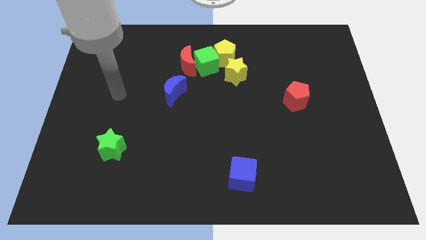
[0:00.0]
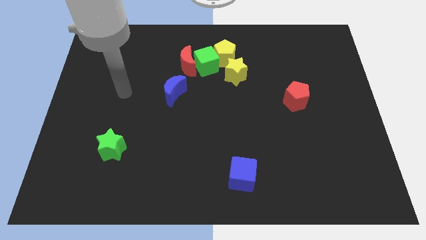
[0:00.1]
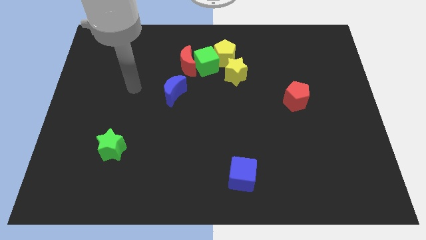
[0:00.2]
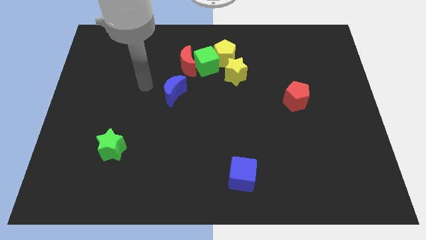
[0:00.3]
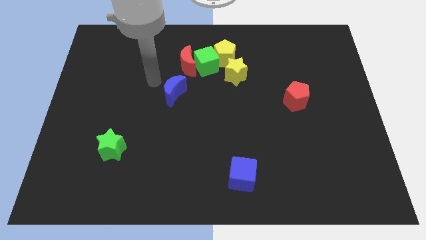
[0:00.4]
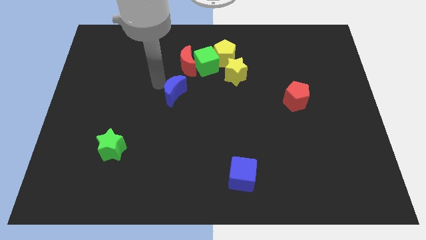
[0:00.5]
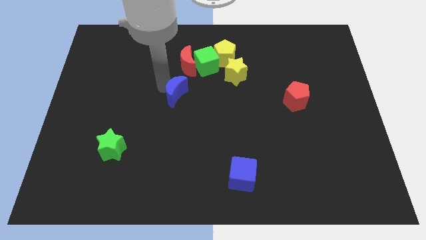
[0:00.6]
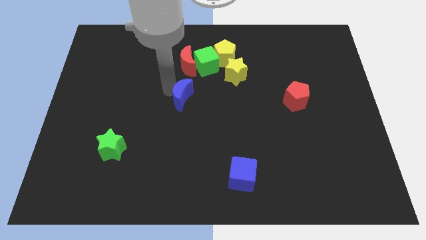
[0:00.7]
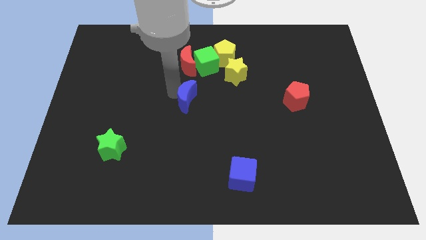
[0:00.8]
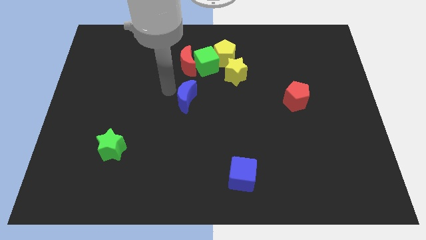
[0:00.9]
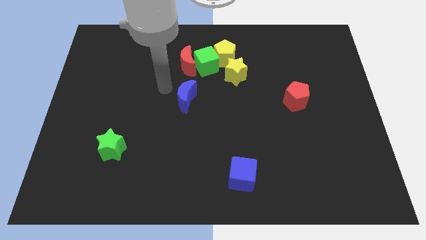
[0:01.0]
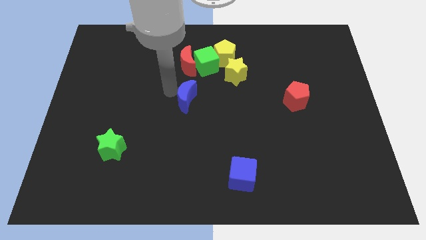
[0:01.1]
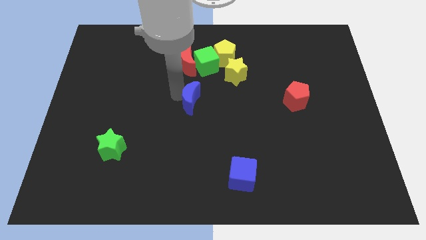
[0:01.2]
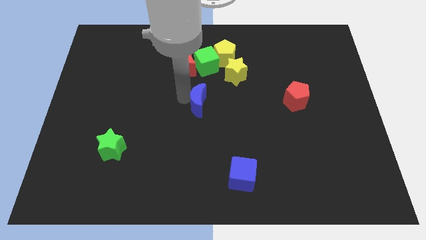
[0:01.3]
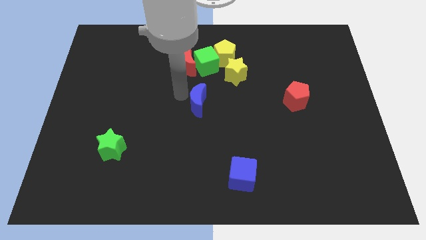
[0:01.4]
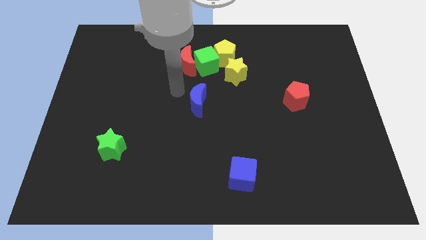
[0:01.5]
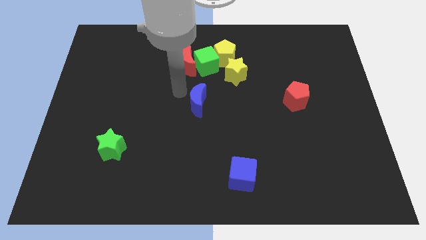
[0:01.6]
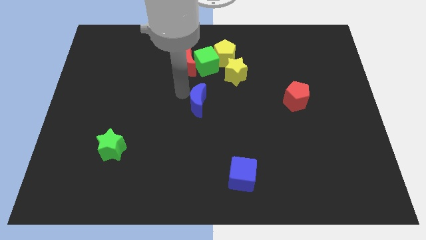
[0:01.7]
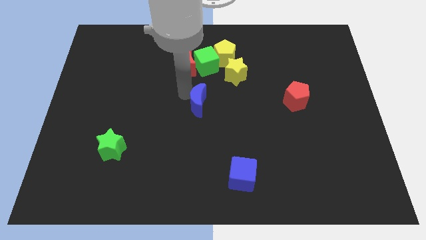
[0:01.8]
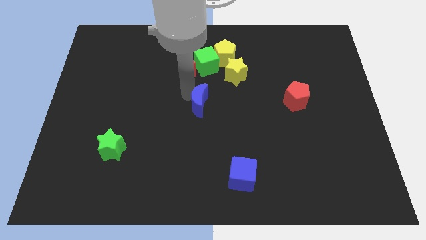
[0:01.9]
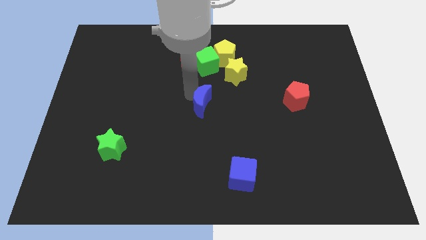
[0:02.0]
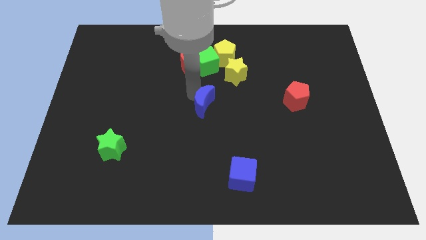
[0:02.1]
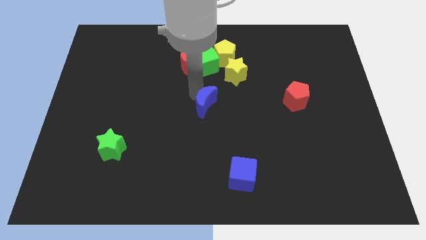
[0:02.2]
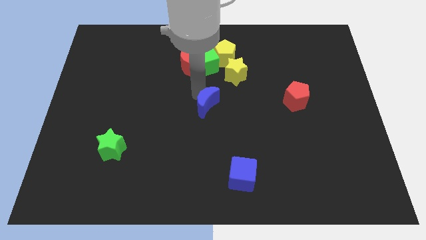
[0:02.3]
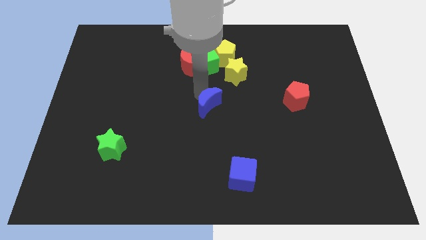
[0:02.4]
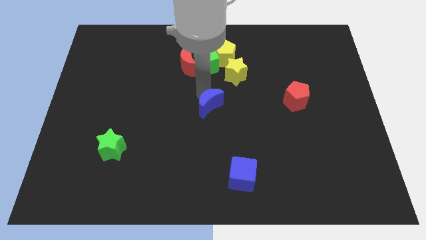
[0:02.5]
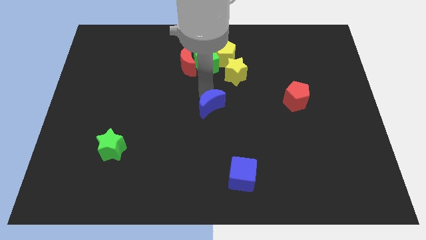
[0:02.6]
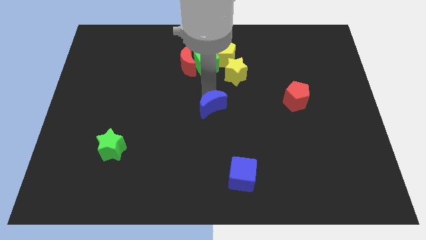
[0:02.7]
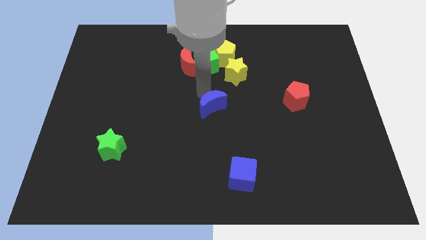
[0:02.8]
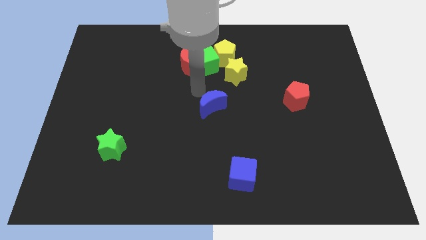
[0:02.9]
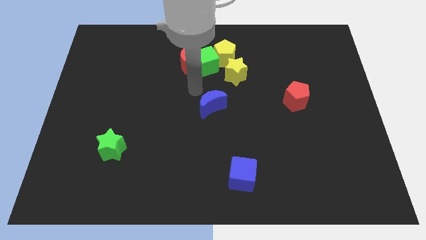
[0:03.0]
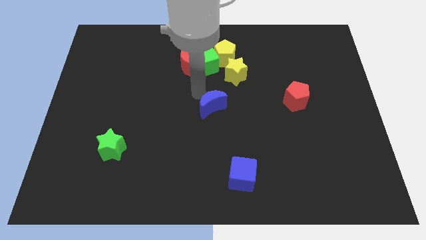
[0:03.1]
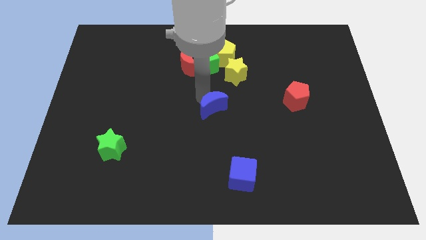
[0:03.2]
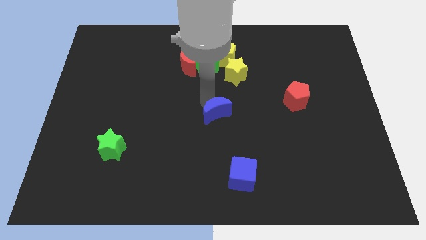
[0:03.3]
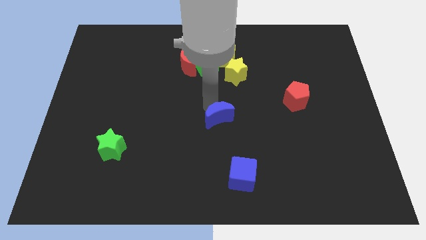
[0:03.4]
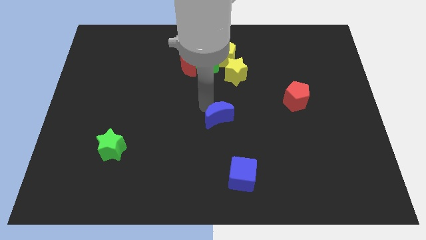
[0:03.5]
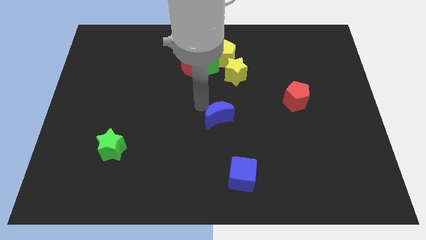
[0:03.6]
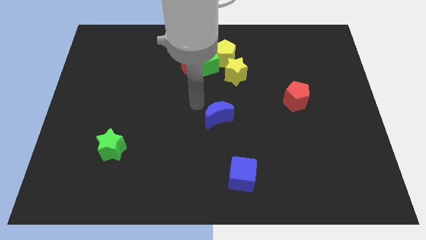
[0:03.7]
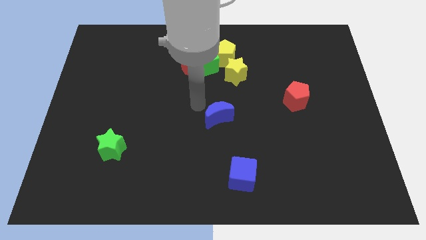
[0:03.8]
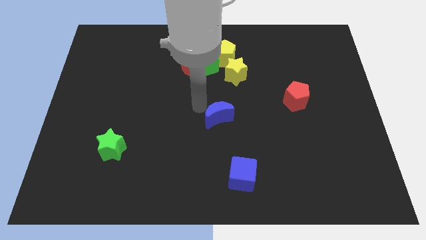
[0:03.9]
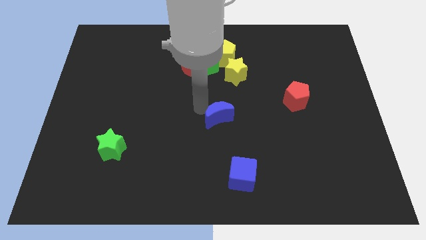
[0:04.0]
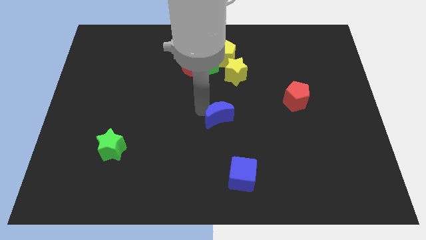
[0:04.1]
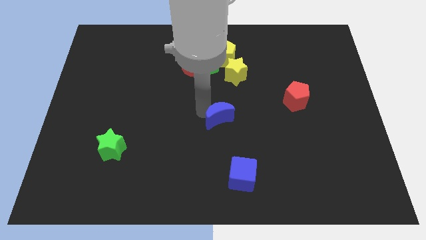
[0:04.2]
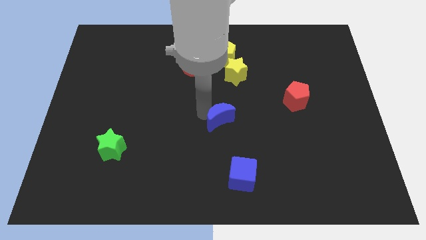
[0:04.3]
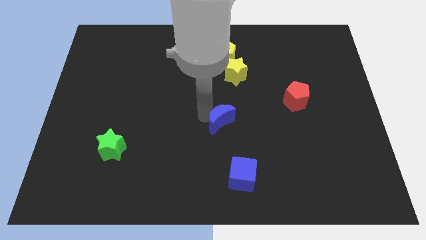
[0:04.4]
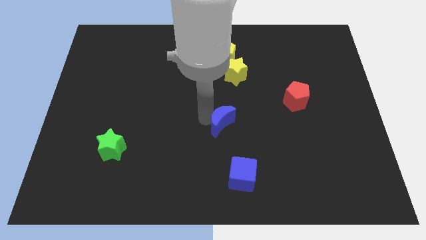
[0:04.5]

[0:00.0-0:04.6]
put the blue moon above the blue cube

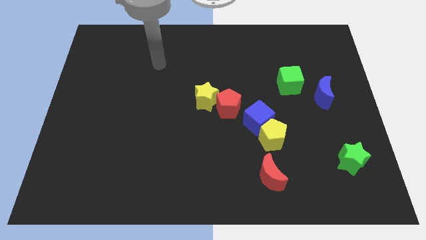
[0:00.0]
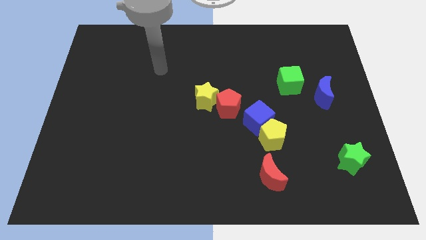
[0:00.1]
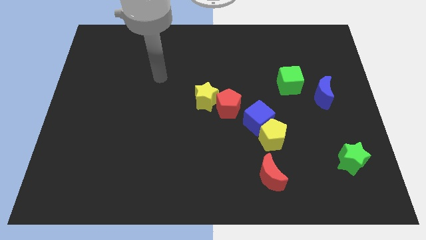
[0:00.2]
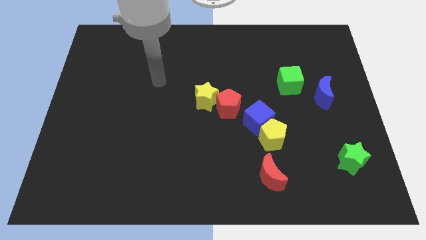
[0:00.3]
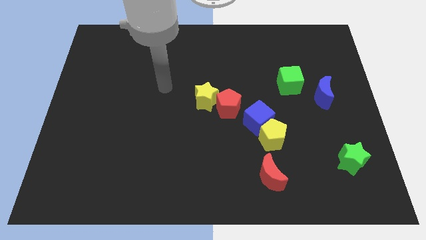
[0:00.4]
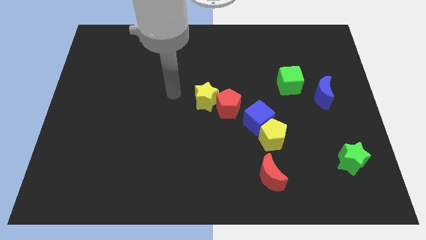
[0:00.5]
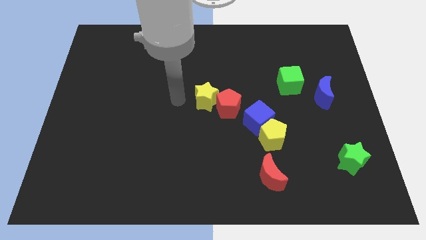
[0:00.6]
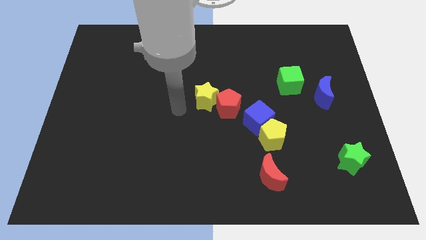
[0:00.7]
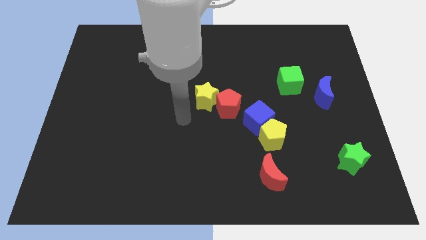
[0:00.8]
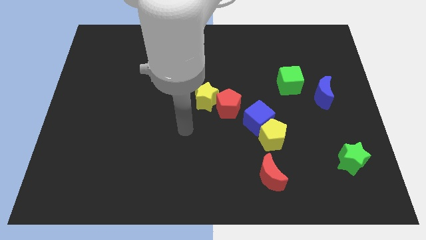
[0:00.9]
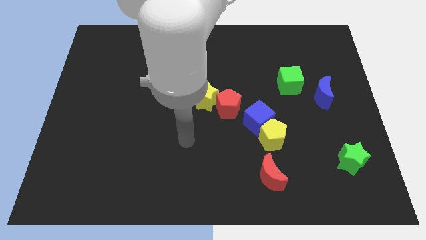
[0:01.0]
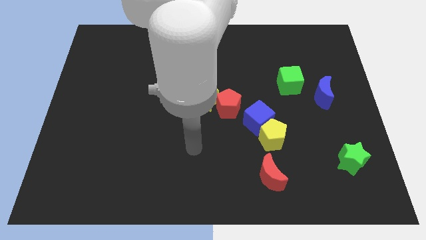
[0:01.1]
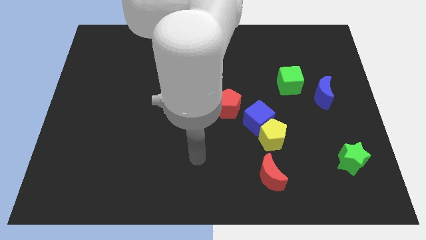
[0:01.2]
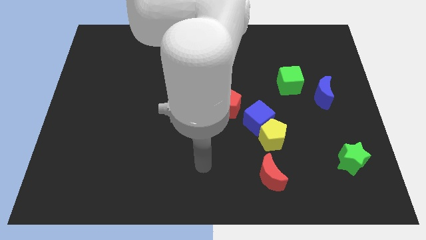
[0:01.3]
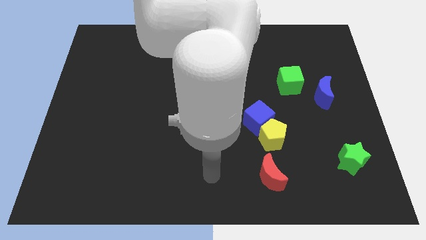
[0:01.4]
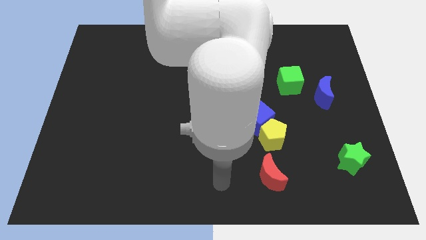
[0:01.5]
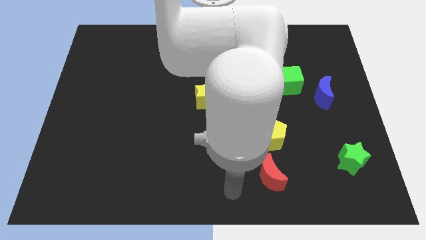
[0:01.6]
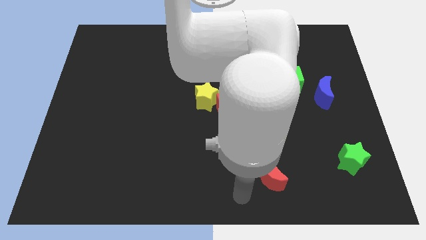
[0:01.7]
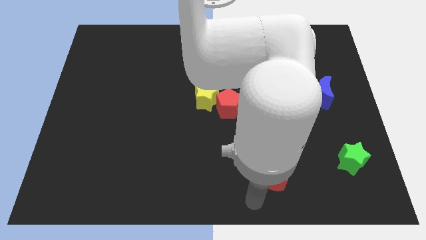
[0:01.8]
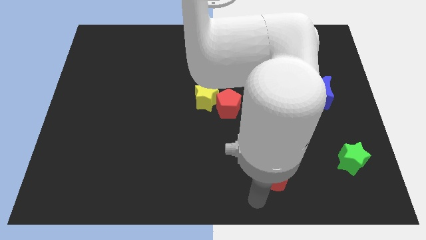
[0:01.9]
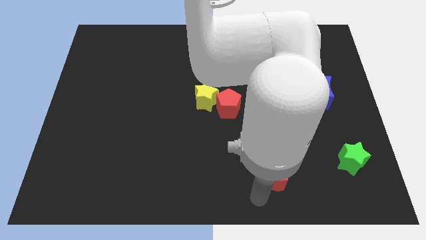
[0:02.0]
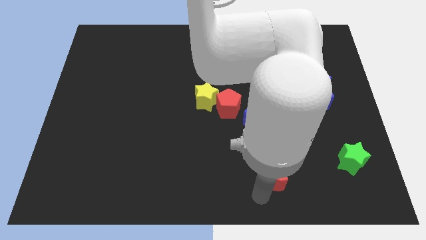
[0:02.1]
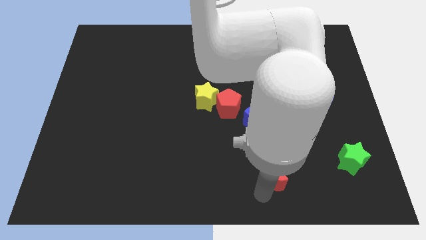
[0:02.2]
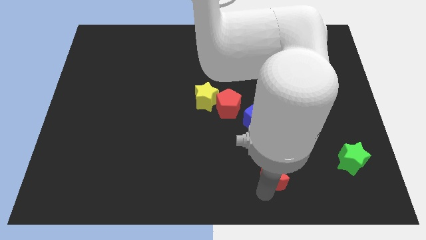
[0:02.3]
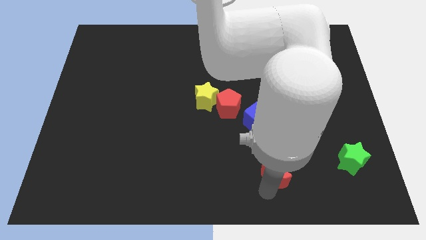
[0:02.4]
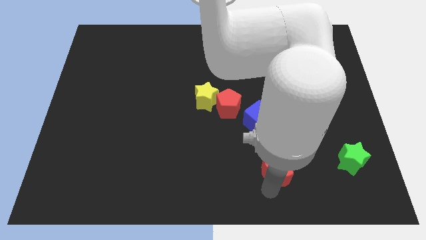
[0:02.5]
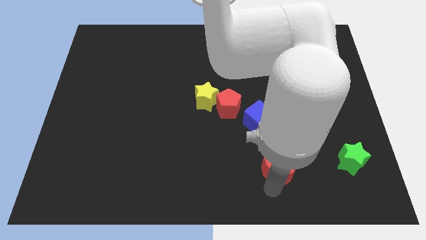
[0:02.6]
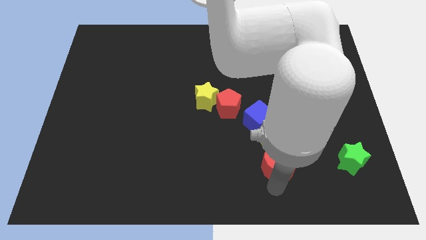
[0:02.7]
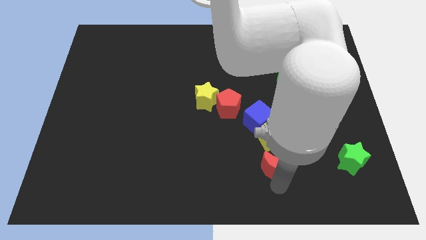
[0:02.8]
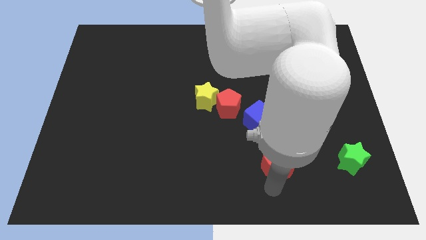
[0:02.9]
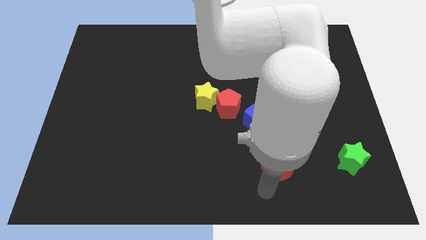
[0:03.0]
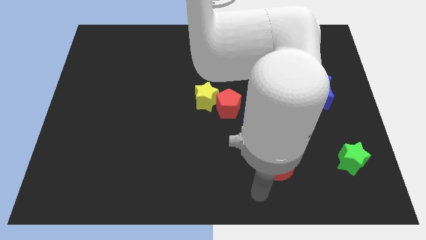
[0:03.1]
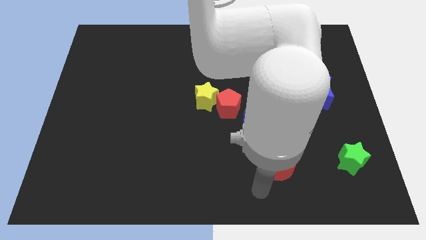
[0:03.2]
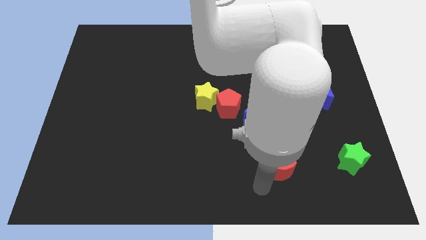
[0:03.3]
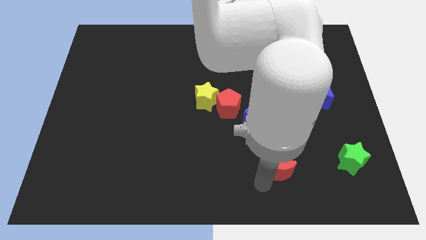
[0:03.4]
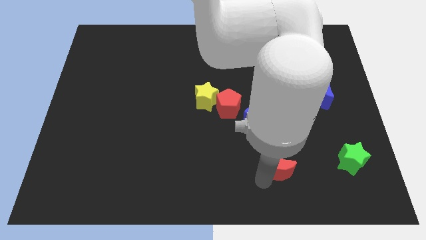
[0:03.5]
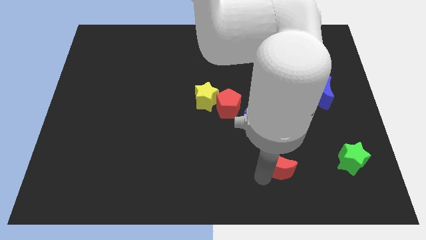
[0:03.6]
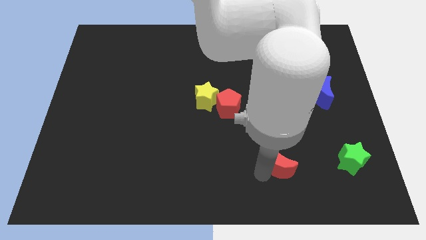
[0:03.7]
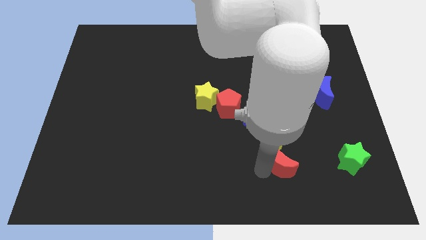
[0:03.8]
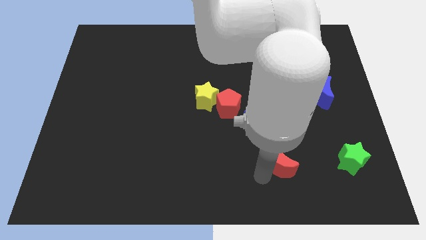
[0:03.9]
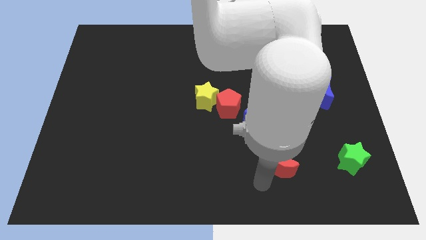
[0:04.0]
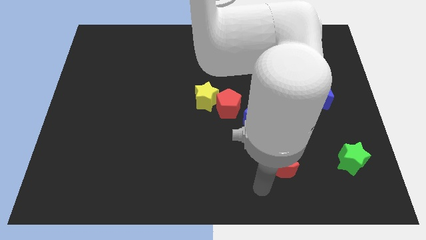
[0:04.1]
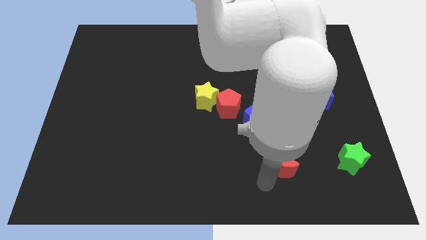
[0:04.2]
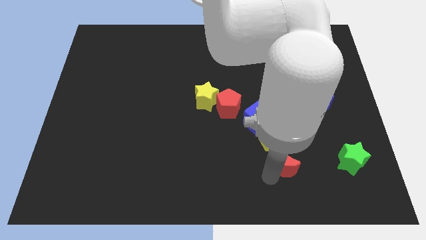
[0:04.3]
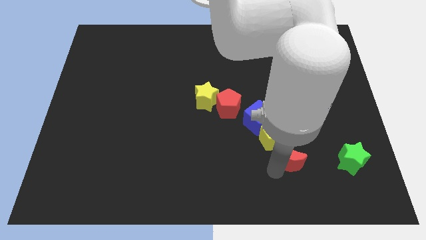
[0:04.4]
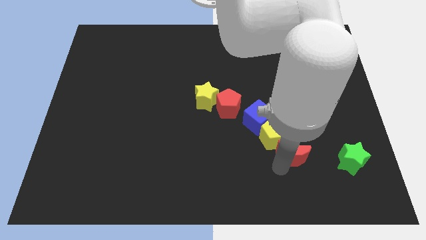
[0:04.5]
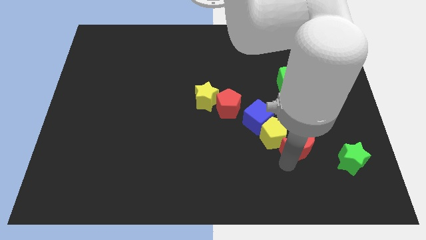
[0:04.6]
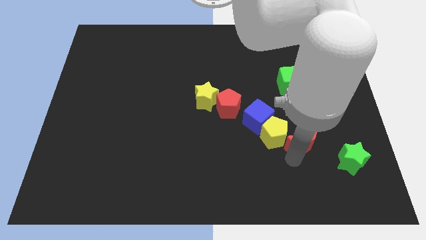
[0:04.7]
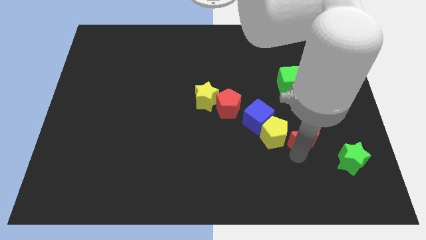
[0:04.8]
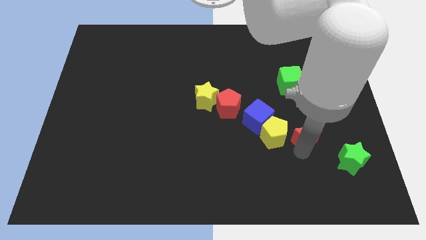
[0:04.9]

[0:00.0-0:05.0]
put the red moon below the green cube
